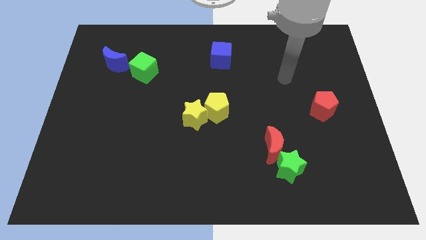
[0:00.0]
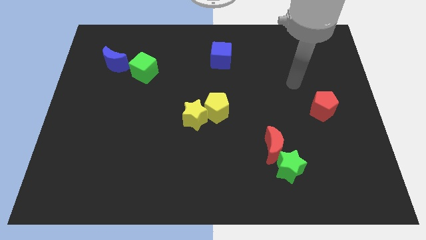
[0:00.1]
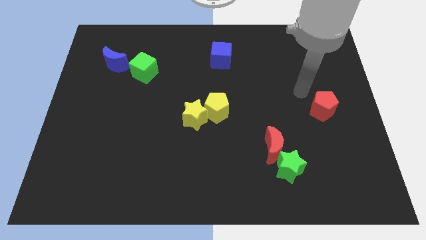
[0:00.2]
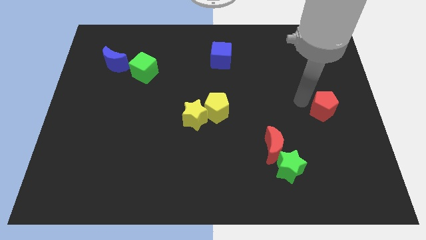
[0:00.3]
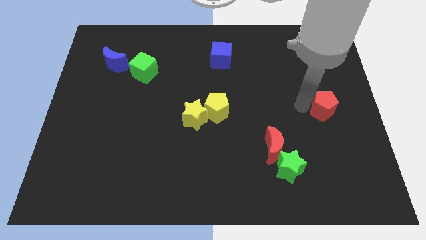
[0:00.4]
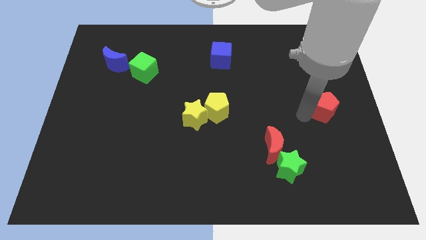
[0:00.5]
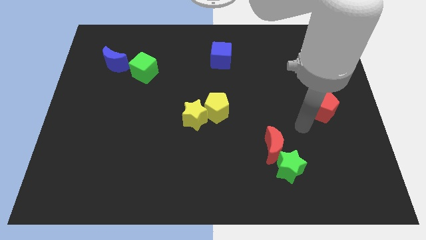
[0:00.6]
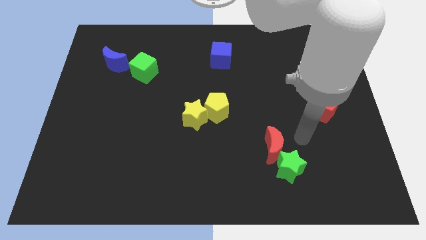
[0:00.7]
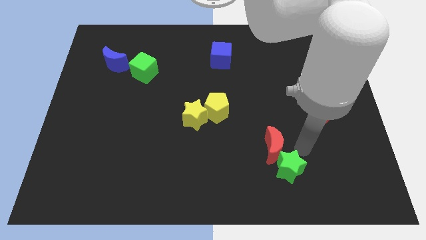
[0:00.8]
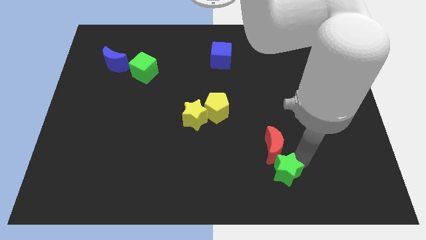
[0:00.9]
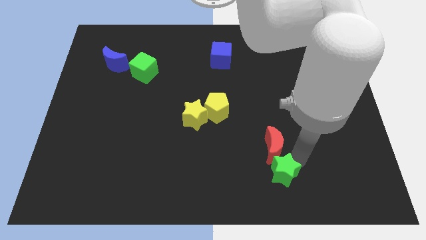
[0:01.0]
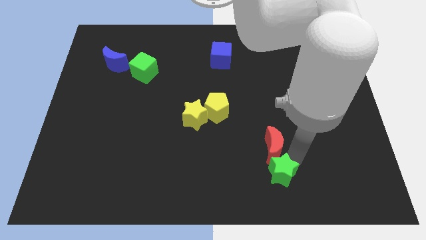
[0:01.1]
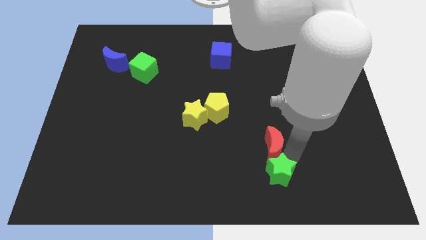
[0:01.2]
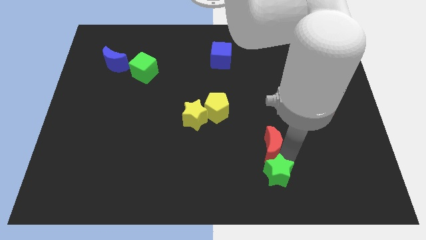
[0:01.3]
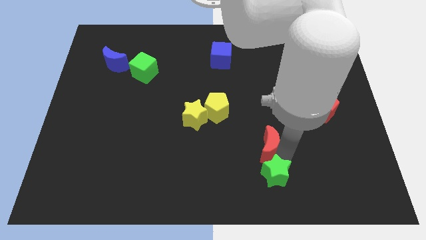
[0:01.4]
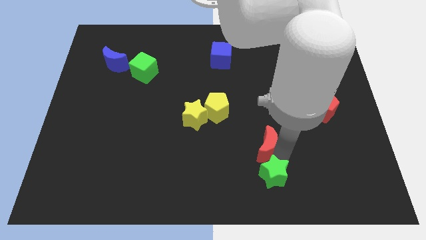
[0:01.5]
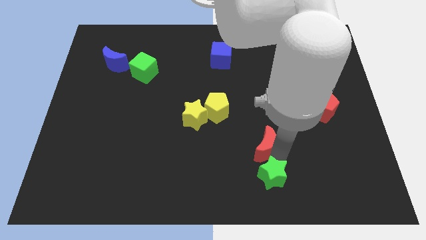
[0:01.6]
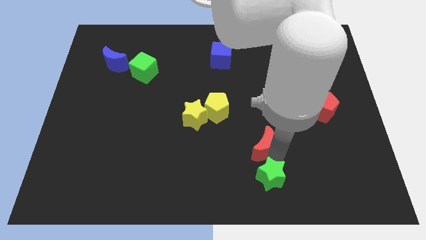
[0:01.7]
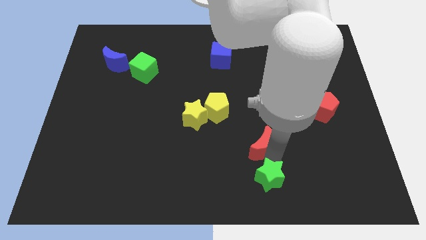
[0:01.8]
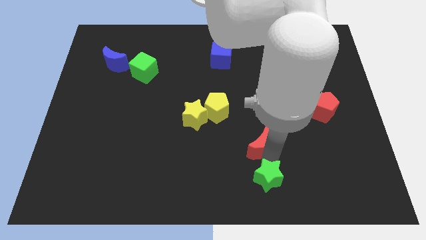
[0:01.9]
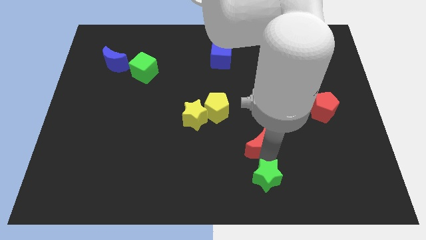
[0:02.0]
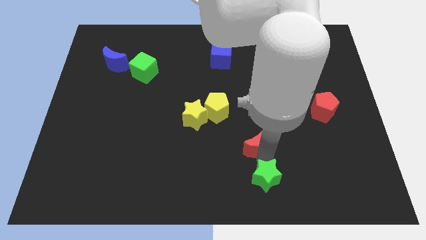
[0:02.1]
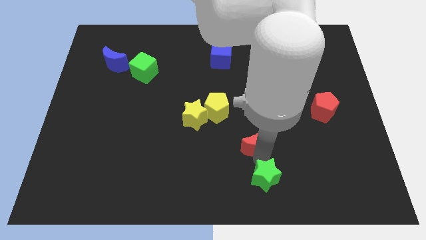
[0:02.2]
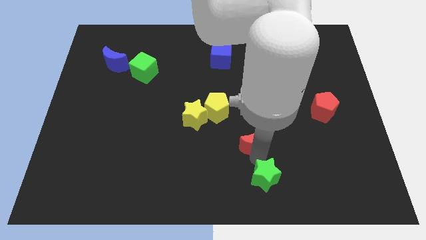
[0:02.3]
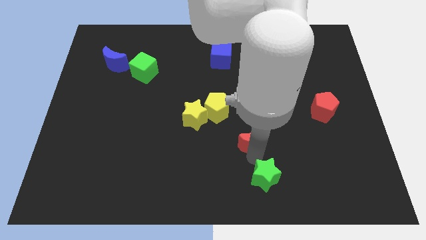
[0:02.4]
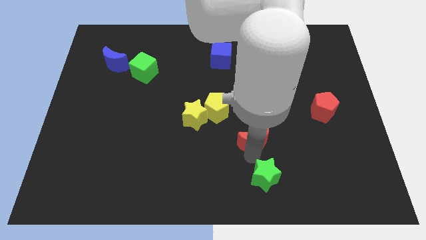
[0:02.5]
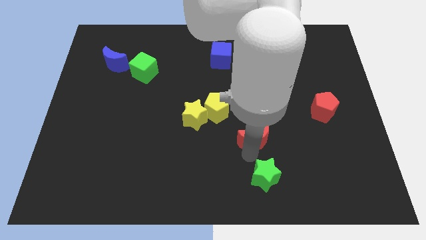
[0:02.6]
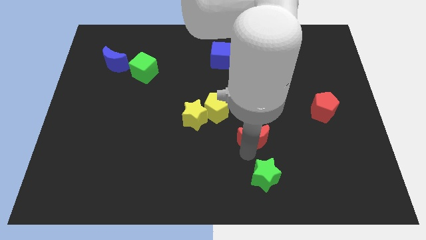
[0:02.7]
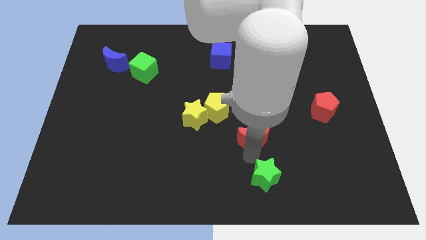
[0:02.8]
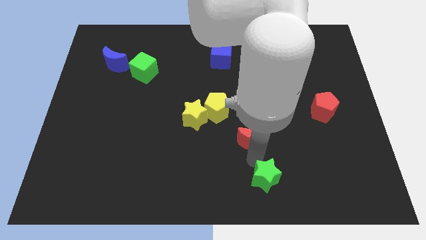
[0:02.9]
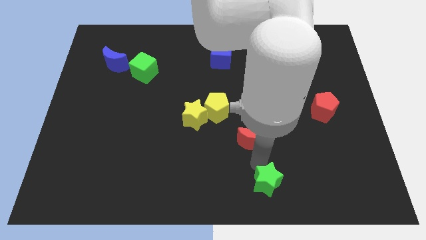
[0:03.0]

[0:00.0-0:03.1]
separate the red moon from the green star

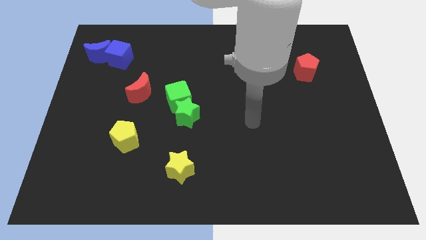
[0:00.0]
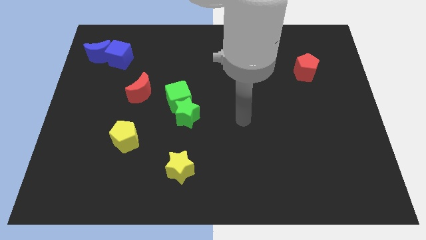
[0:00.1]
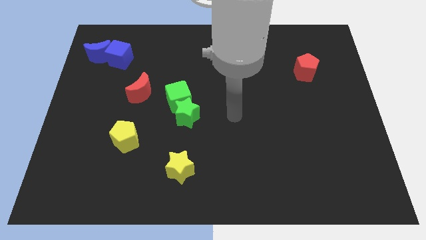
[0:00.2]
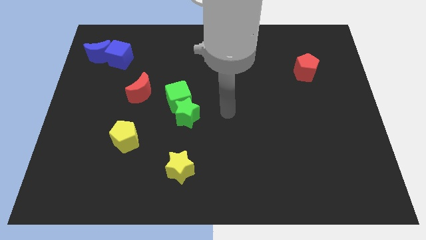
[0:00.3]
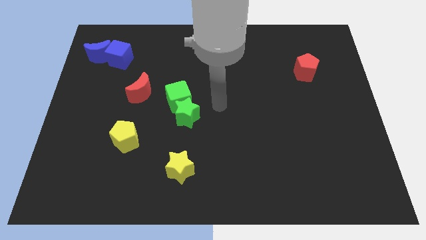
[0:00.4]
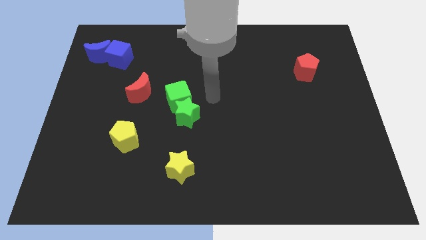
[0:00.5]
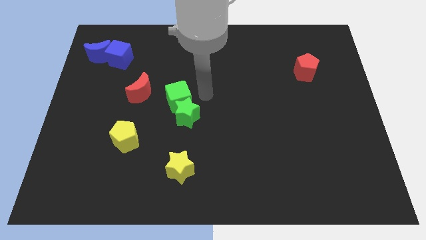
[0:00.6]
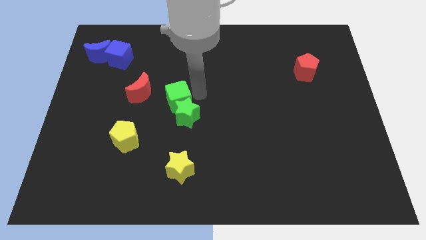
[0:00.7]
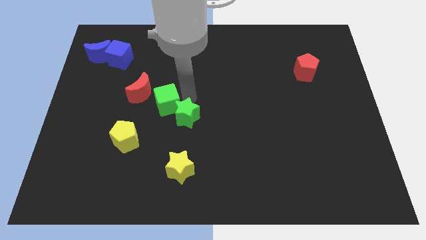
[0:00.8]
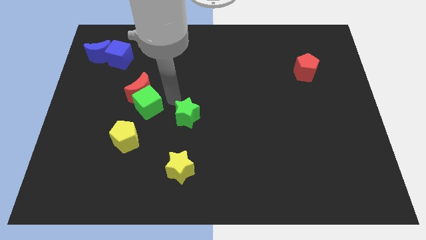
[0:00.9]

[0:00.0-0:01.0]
move the green star away from the green cube

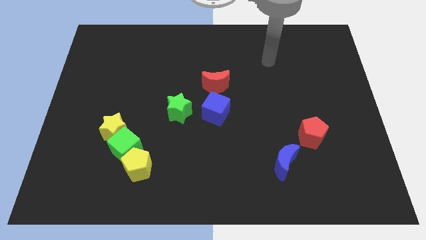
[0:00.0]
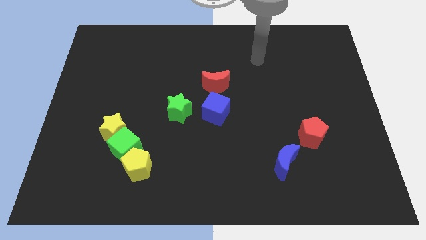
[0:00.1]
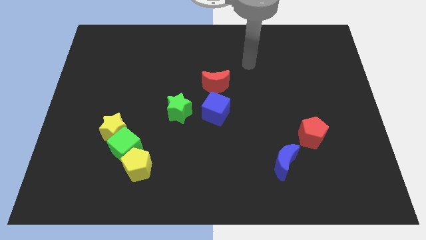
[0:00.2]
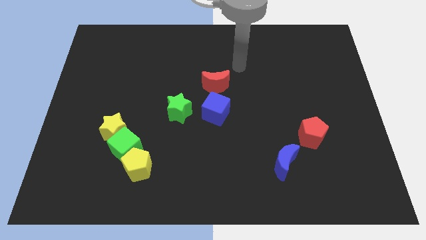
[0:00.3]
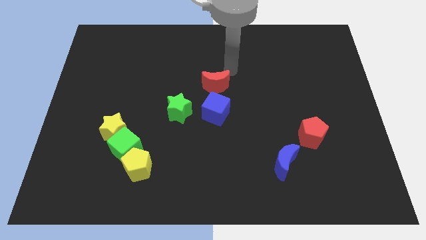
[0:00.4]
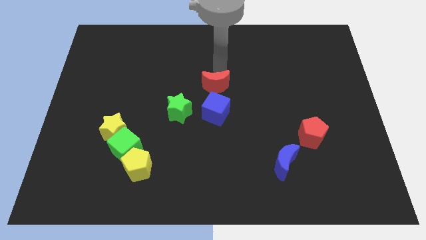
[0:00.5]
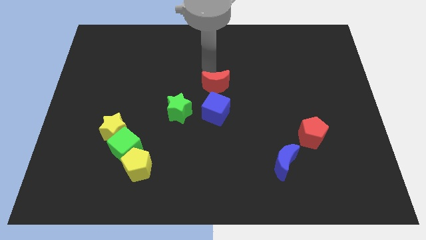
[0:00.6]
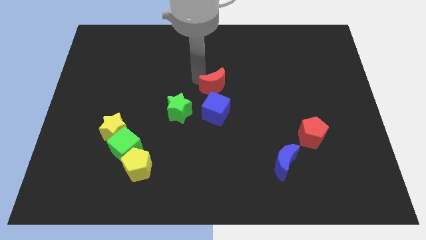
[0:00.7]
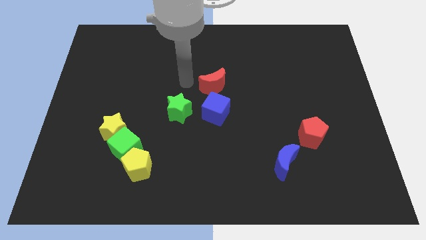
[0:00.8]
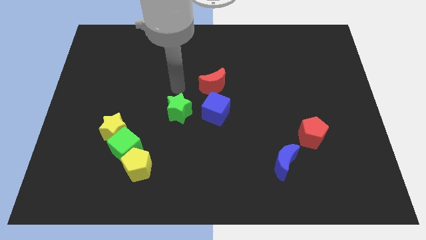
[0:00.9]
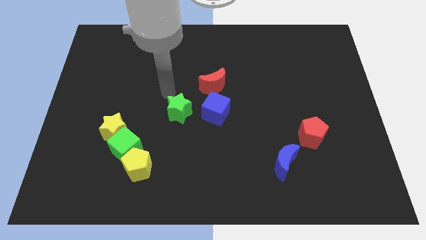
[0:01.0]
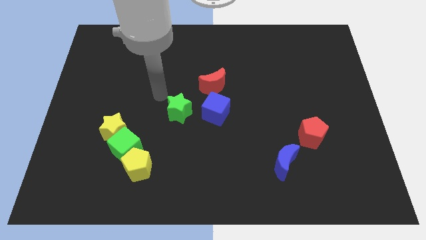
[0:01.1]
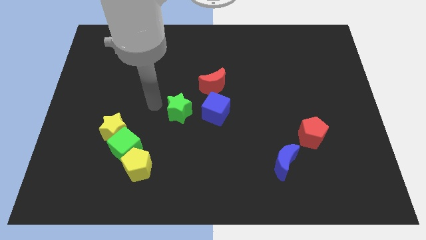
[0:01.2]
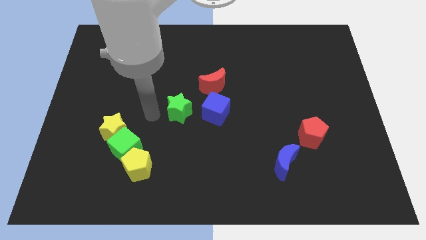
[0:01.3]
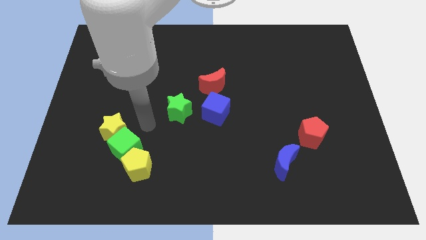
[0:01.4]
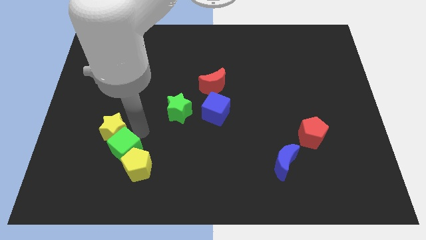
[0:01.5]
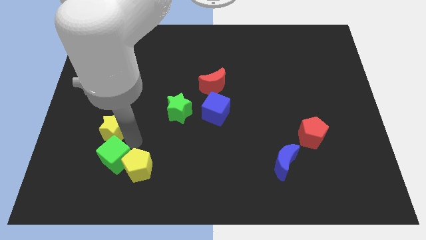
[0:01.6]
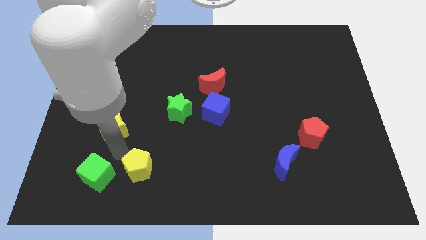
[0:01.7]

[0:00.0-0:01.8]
pull the yellow star apart from the green cube

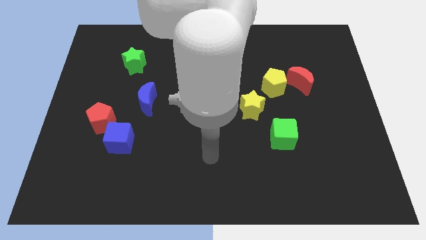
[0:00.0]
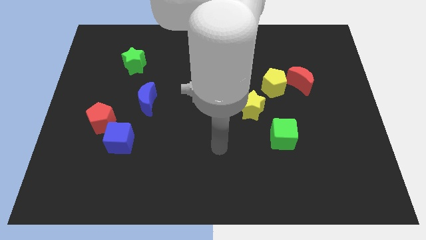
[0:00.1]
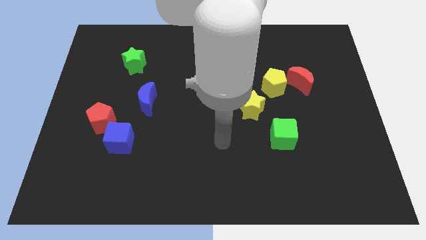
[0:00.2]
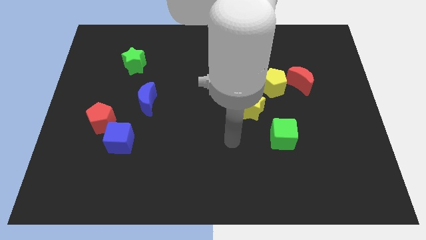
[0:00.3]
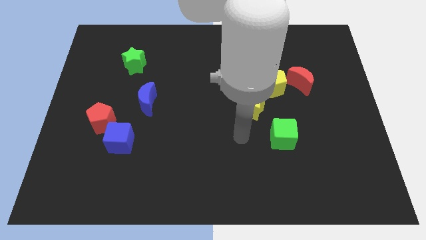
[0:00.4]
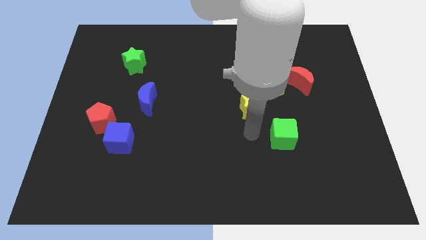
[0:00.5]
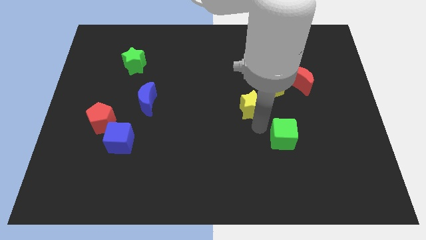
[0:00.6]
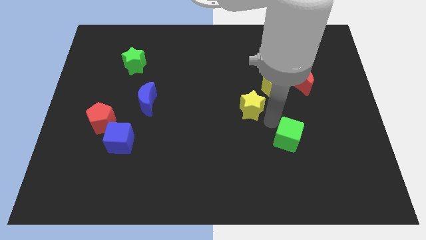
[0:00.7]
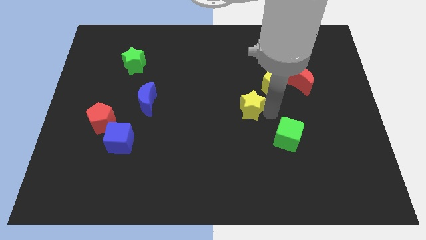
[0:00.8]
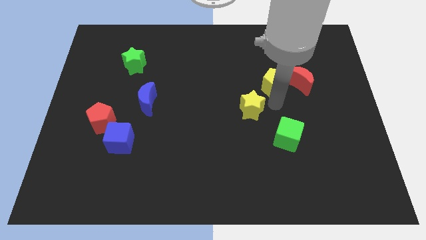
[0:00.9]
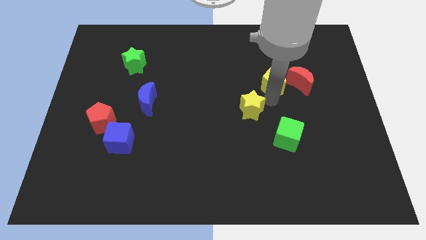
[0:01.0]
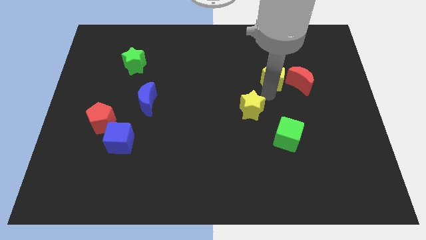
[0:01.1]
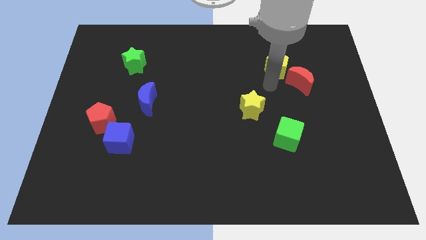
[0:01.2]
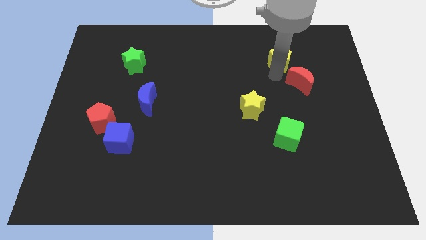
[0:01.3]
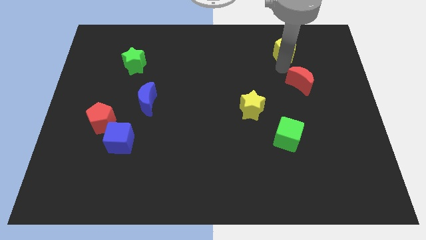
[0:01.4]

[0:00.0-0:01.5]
separate the red moon from the yellow pentagon

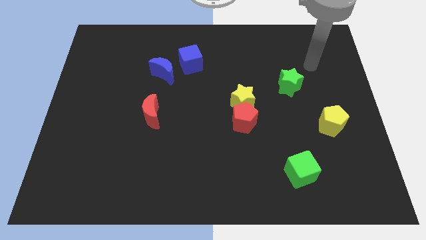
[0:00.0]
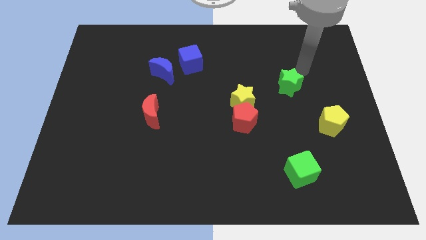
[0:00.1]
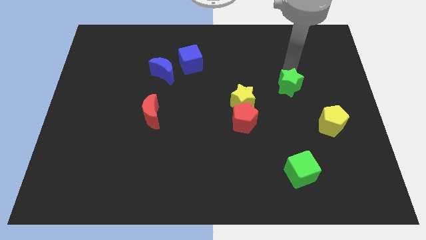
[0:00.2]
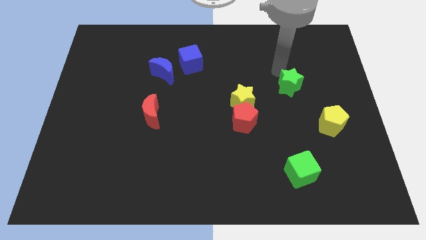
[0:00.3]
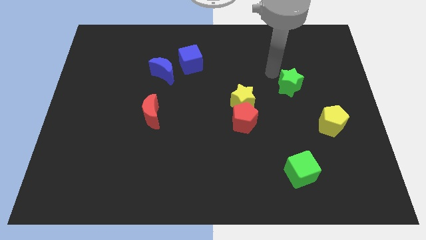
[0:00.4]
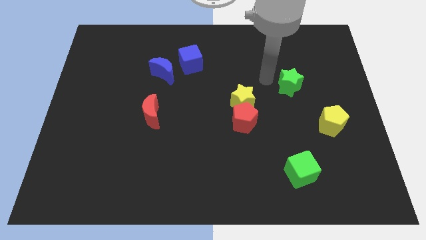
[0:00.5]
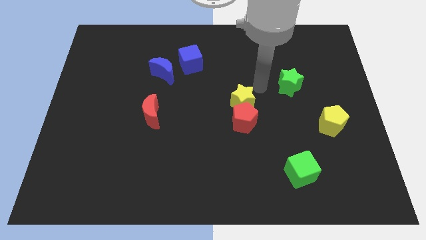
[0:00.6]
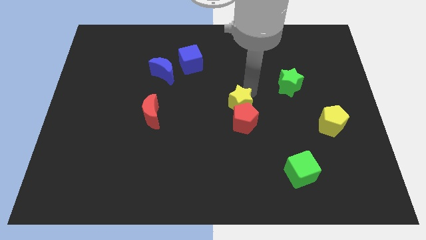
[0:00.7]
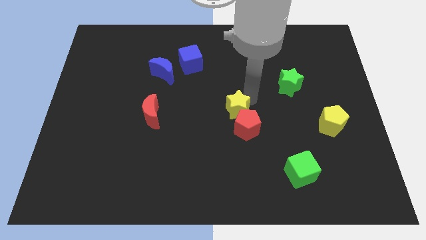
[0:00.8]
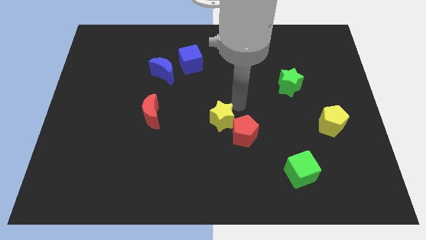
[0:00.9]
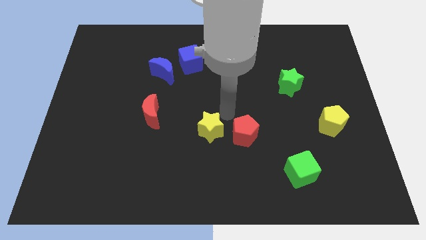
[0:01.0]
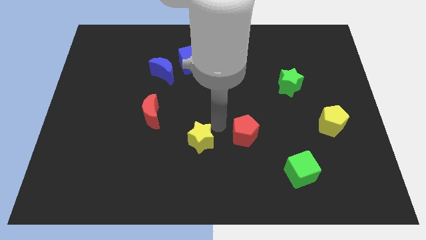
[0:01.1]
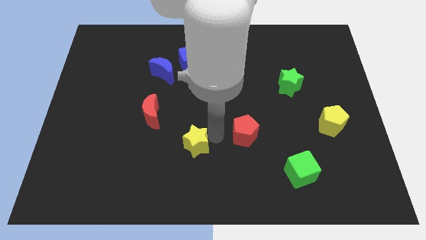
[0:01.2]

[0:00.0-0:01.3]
move the red pentagon away from the yellow star

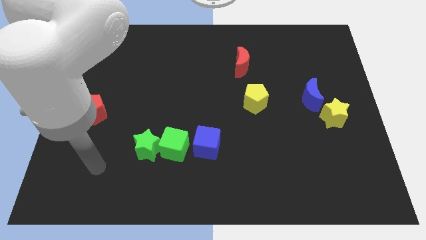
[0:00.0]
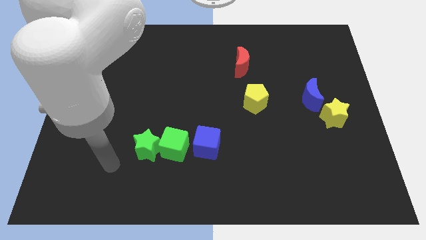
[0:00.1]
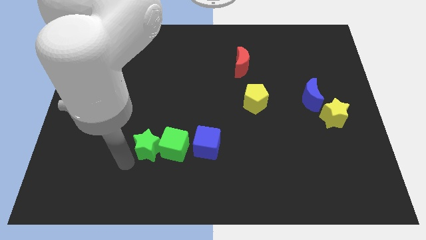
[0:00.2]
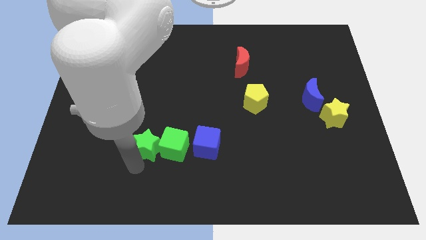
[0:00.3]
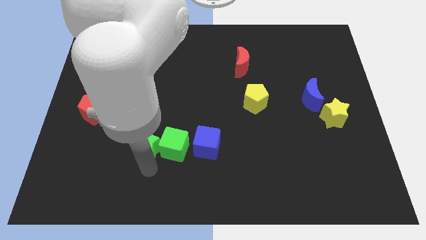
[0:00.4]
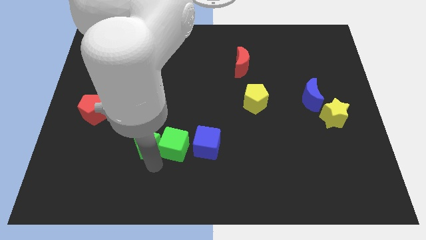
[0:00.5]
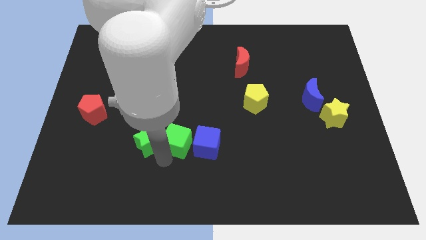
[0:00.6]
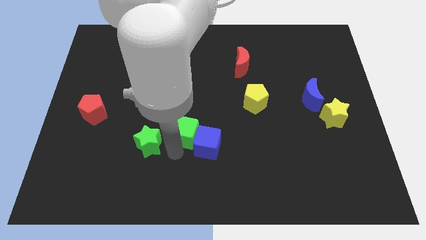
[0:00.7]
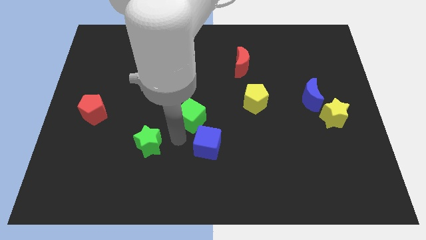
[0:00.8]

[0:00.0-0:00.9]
pull the green star apart from the green cube
